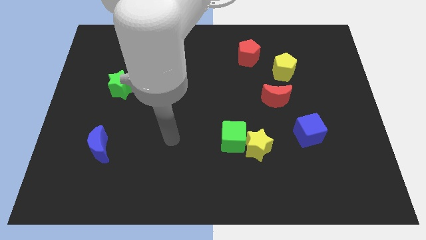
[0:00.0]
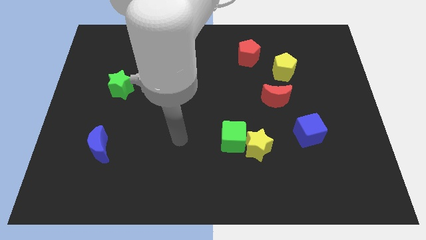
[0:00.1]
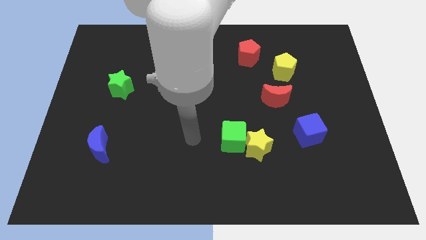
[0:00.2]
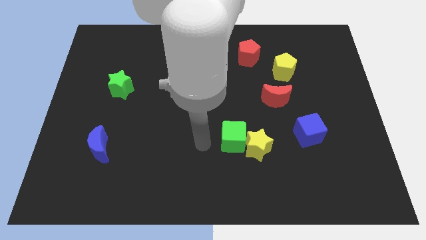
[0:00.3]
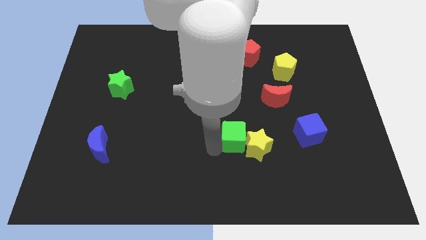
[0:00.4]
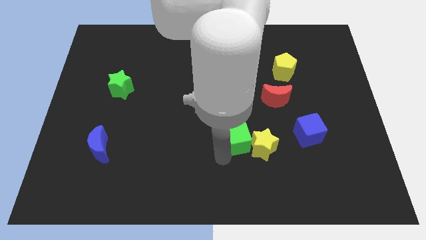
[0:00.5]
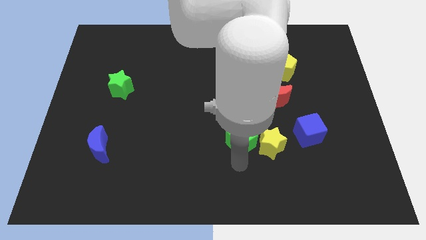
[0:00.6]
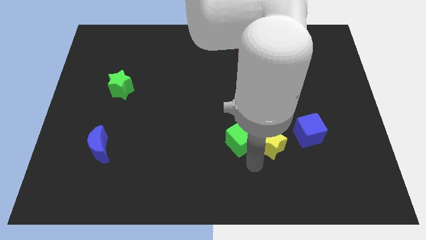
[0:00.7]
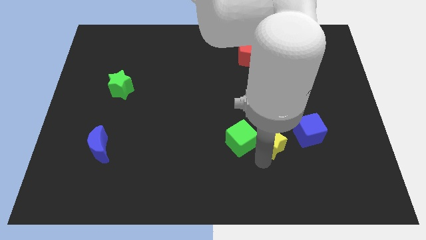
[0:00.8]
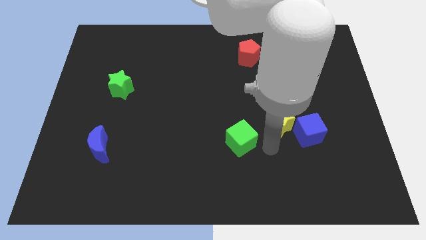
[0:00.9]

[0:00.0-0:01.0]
move the green cube away from the yellow star

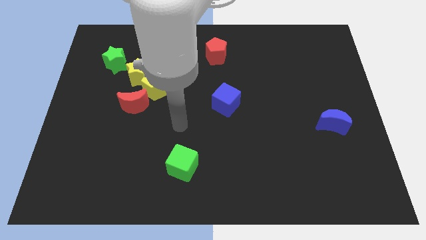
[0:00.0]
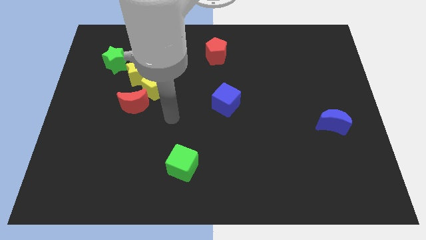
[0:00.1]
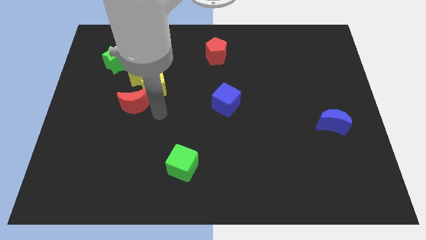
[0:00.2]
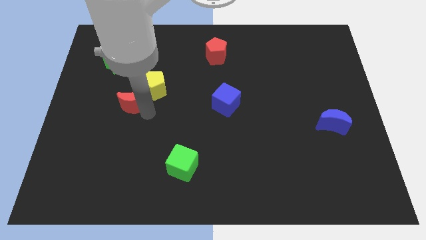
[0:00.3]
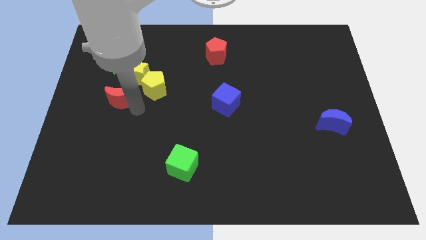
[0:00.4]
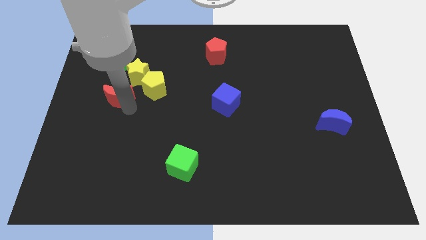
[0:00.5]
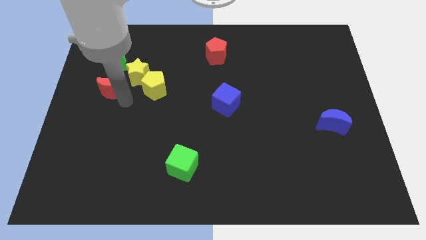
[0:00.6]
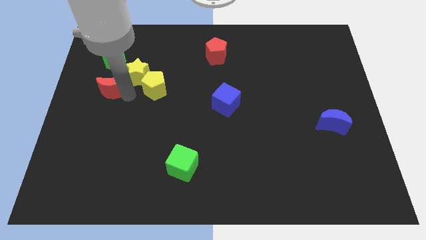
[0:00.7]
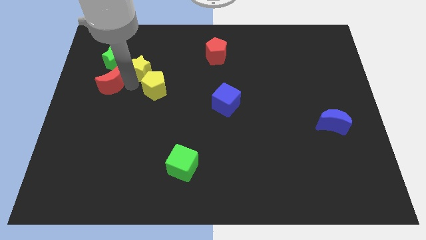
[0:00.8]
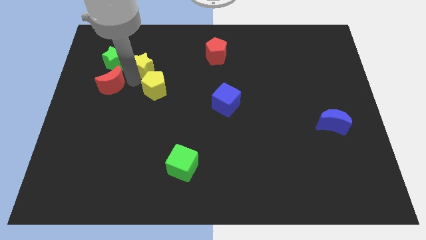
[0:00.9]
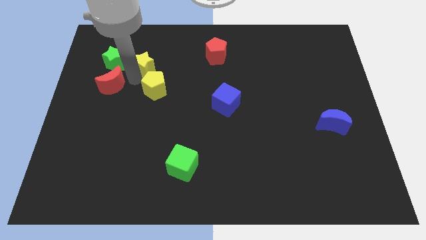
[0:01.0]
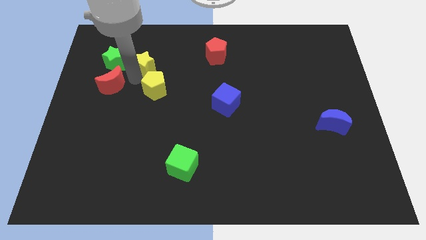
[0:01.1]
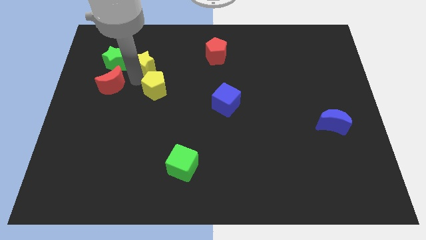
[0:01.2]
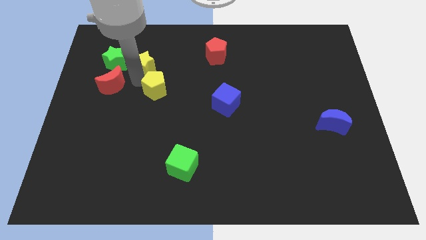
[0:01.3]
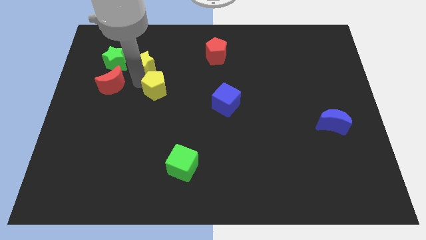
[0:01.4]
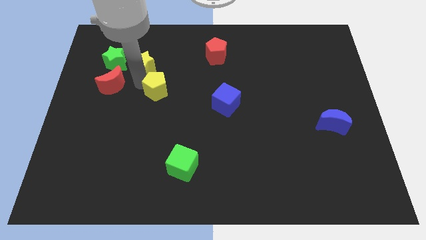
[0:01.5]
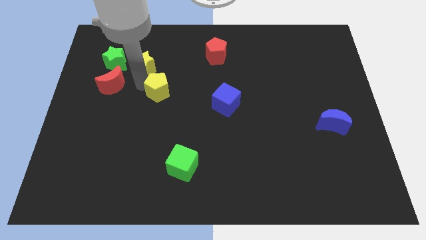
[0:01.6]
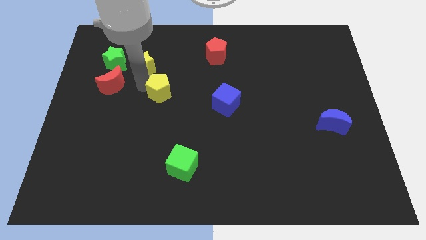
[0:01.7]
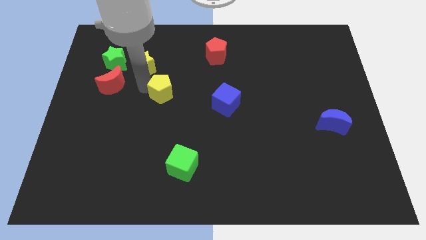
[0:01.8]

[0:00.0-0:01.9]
pull the yellow pentagon apart from the yellow star and red moon

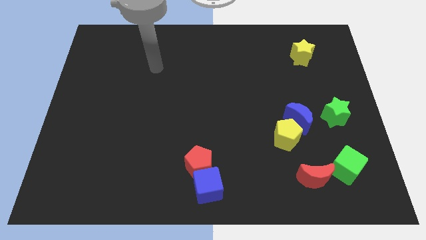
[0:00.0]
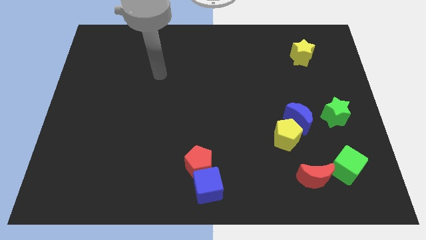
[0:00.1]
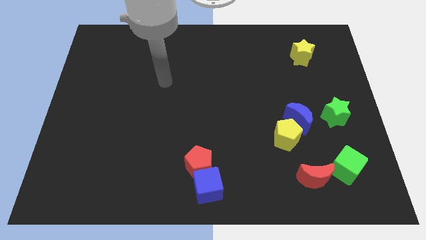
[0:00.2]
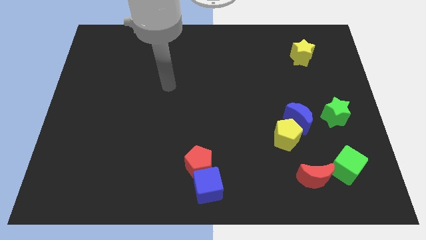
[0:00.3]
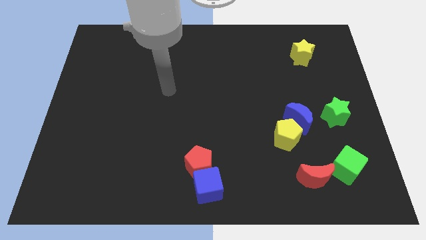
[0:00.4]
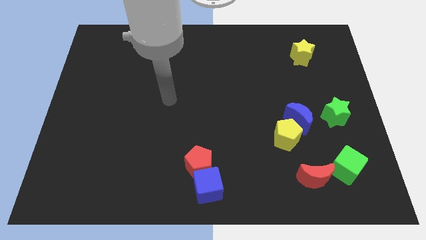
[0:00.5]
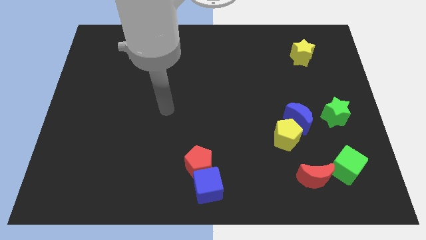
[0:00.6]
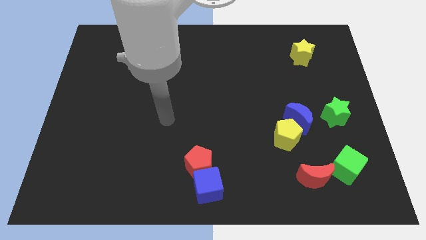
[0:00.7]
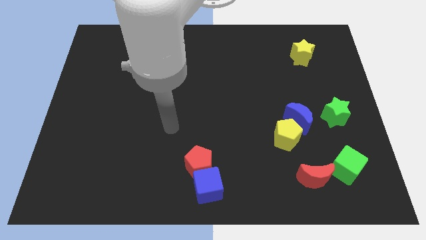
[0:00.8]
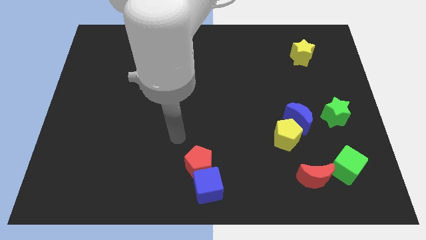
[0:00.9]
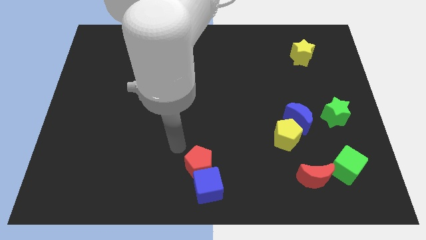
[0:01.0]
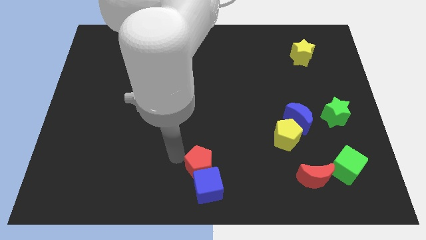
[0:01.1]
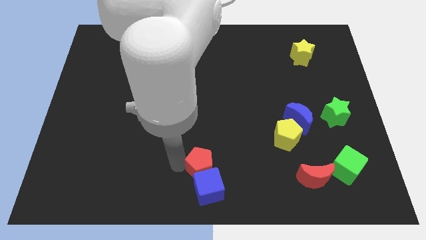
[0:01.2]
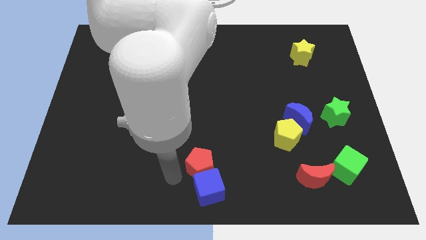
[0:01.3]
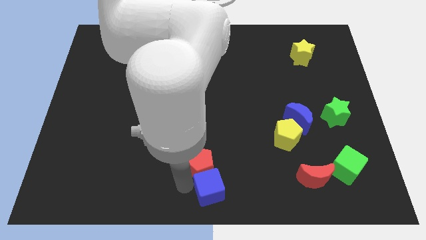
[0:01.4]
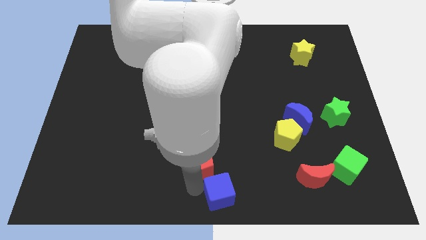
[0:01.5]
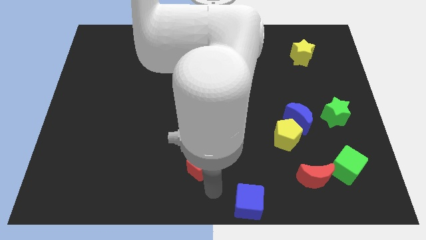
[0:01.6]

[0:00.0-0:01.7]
pull the red pentagon apart from the blue cube

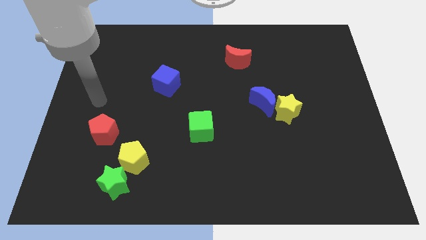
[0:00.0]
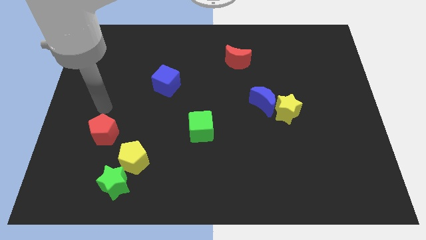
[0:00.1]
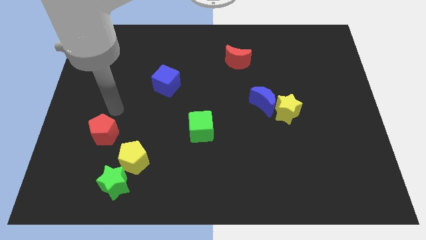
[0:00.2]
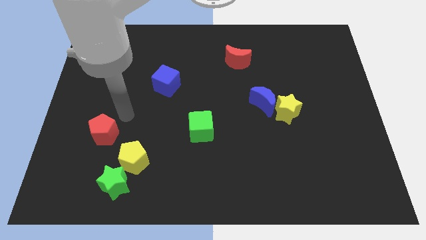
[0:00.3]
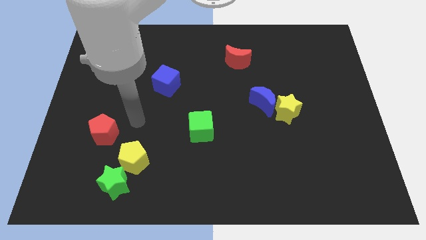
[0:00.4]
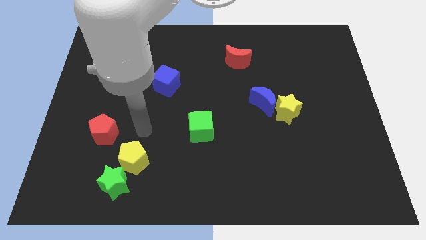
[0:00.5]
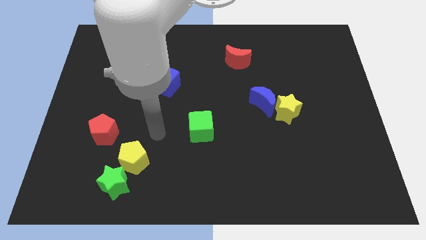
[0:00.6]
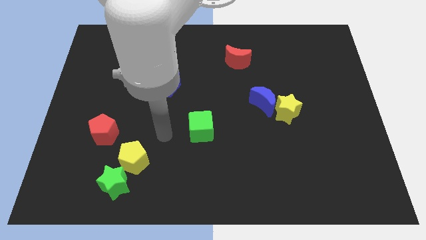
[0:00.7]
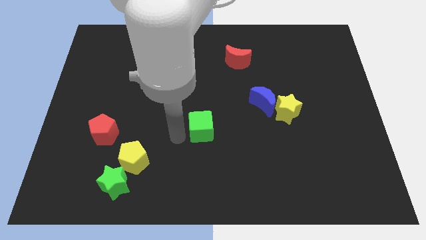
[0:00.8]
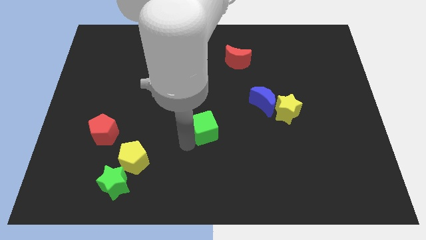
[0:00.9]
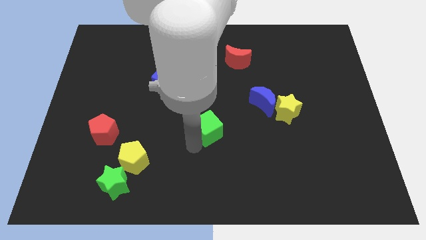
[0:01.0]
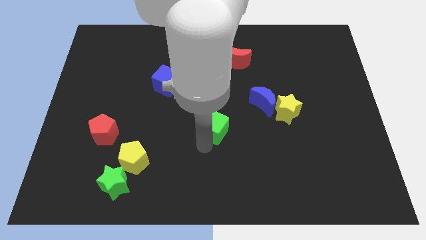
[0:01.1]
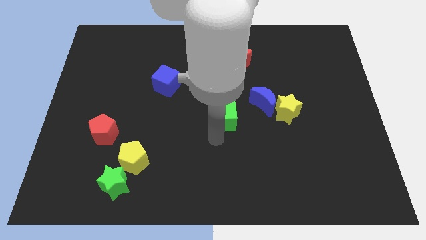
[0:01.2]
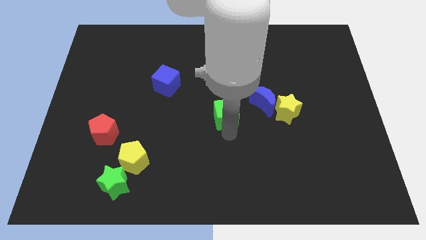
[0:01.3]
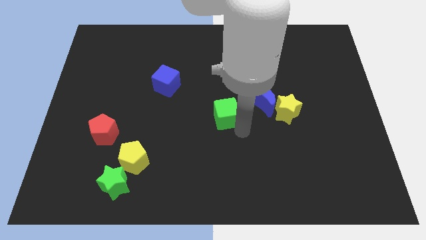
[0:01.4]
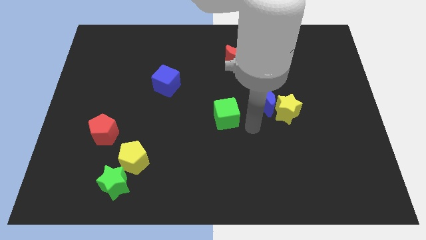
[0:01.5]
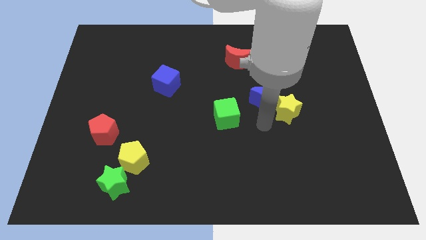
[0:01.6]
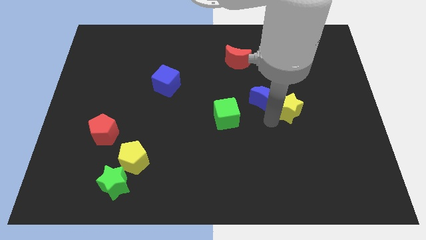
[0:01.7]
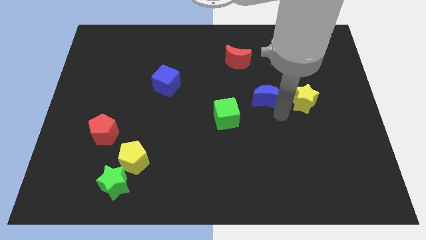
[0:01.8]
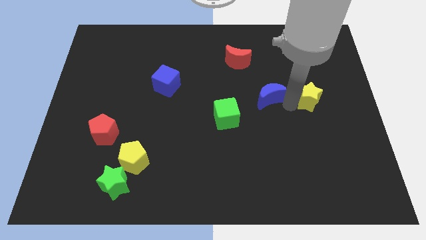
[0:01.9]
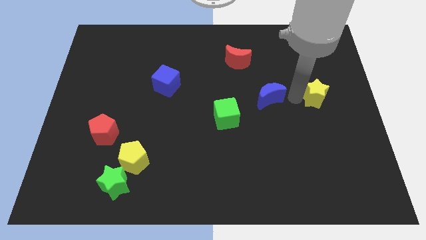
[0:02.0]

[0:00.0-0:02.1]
pull the blue moon apart from the yellow star

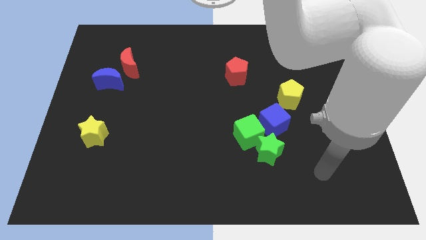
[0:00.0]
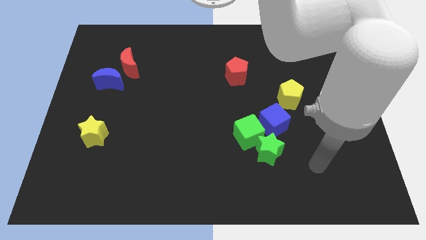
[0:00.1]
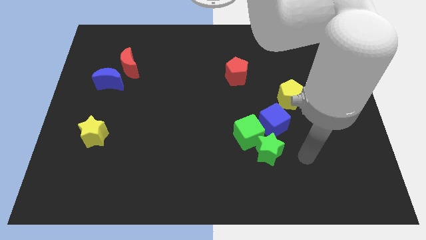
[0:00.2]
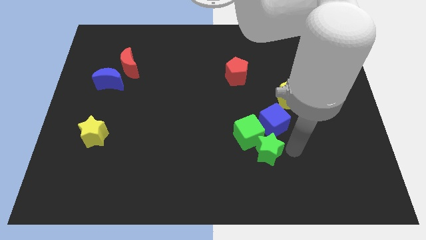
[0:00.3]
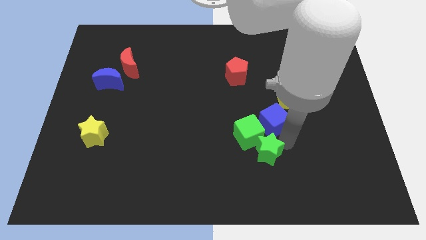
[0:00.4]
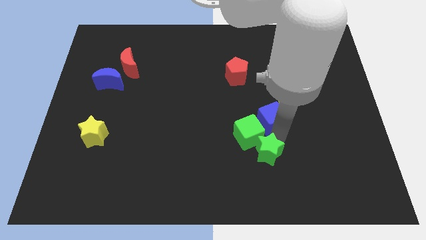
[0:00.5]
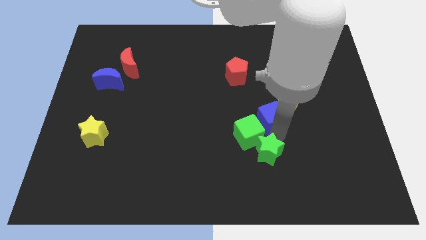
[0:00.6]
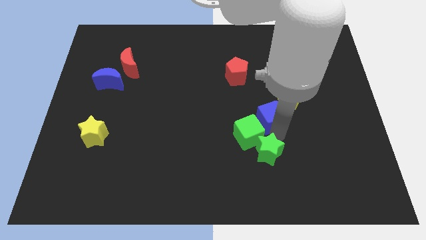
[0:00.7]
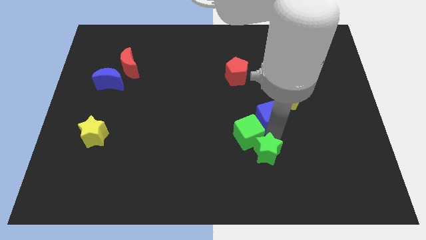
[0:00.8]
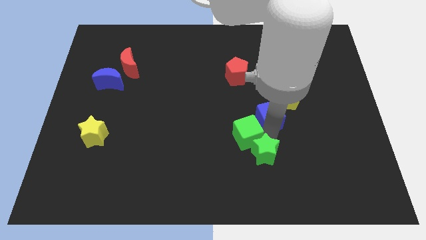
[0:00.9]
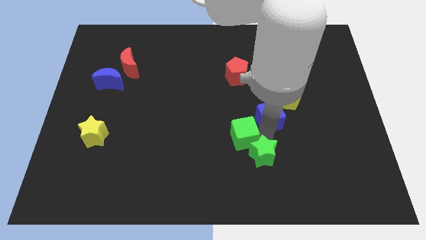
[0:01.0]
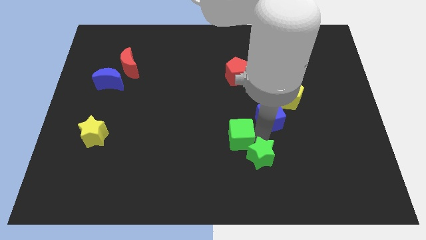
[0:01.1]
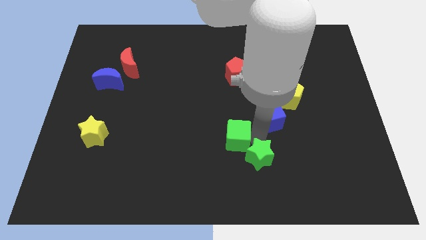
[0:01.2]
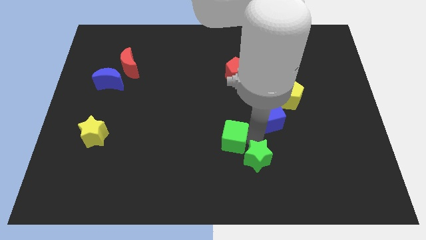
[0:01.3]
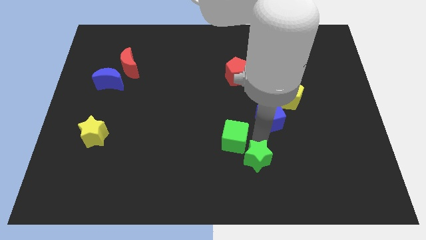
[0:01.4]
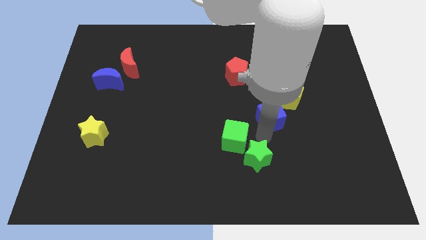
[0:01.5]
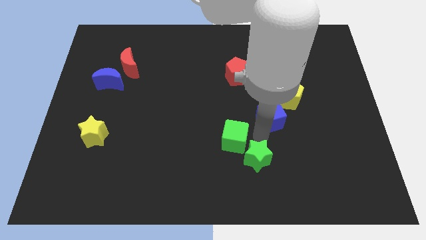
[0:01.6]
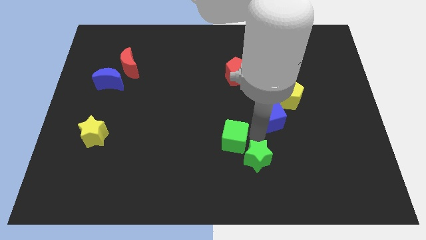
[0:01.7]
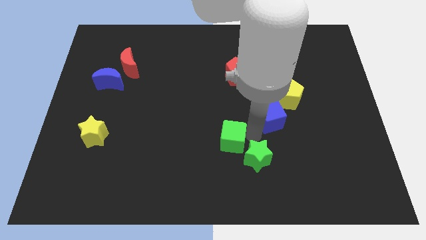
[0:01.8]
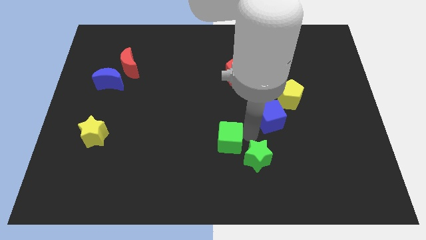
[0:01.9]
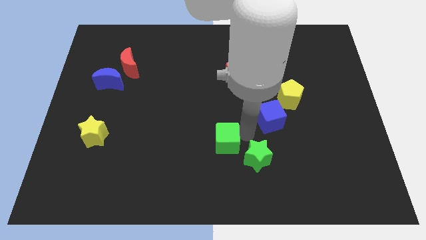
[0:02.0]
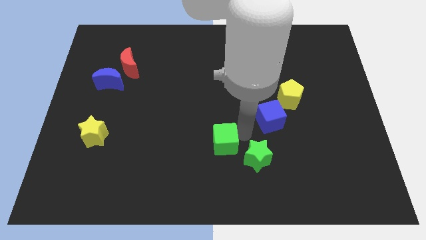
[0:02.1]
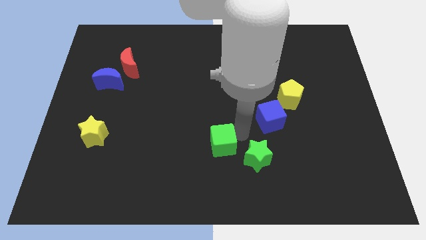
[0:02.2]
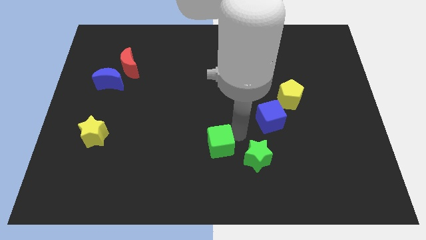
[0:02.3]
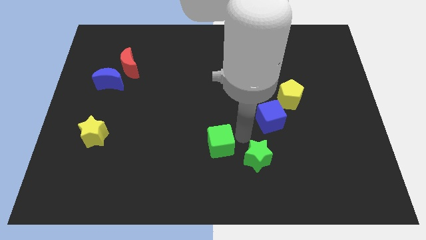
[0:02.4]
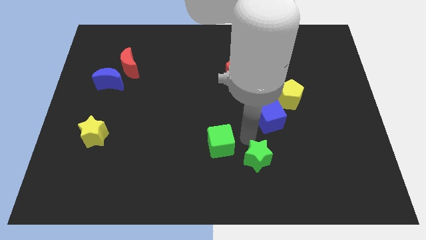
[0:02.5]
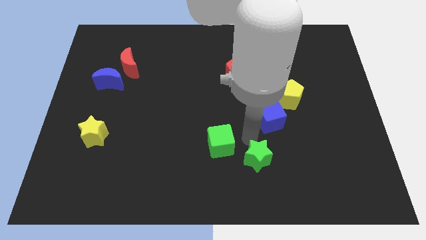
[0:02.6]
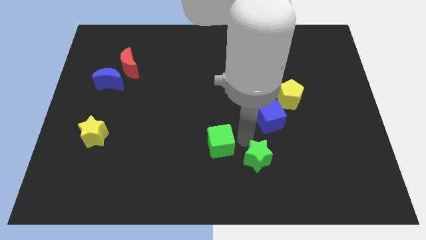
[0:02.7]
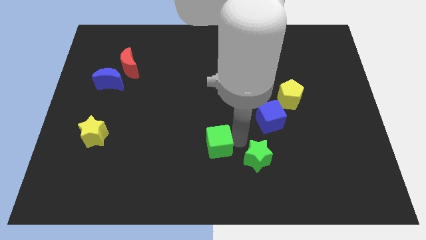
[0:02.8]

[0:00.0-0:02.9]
move the green cube away from the green star and blue cube
